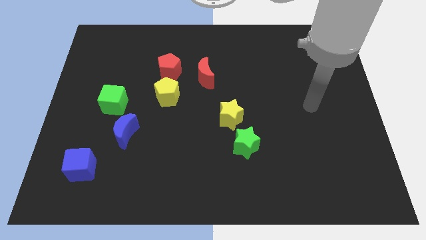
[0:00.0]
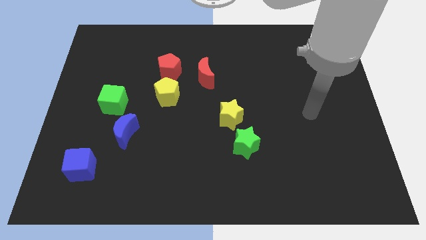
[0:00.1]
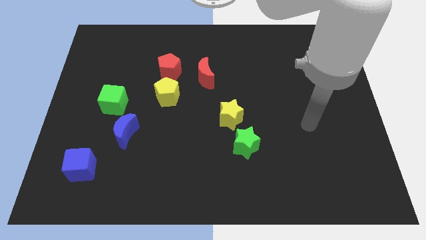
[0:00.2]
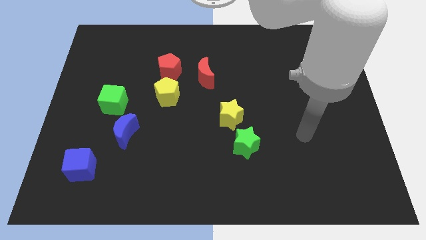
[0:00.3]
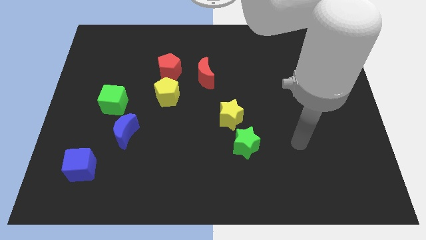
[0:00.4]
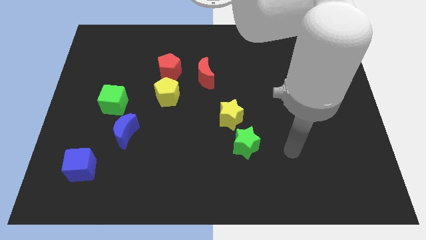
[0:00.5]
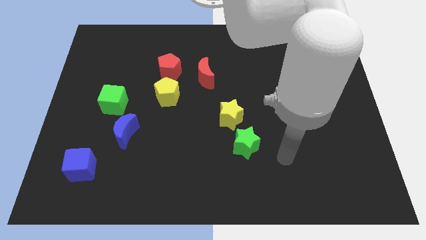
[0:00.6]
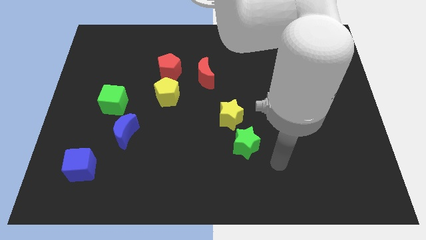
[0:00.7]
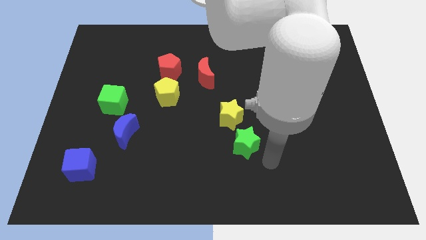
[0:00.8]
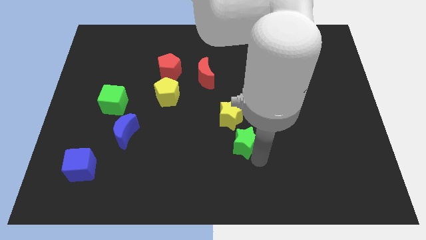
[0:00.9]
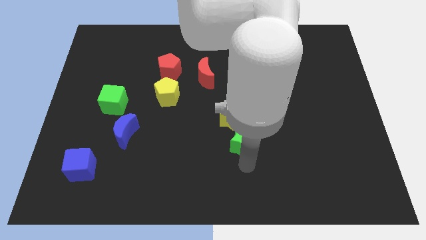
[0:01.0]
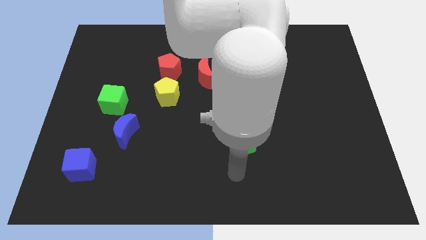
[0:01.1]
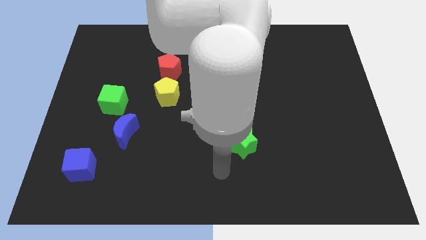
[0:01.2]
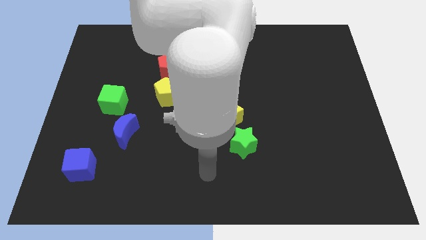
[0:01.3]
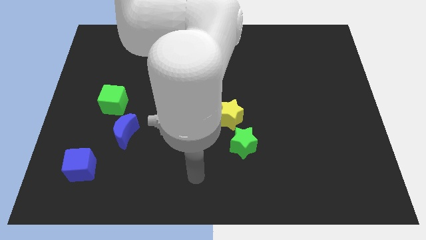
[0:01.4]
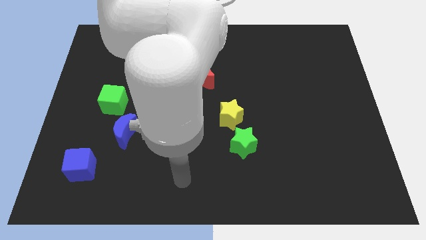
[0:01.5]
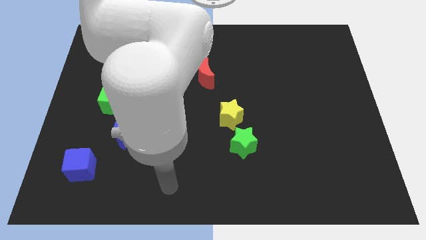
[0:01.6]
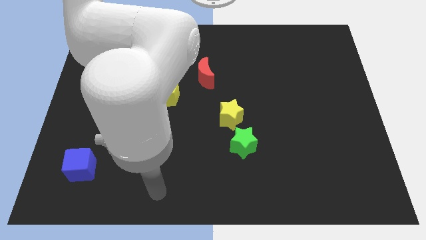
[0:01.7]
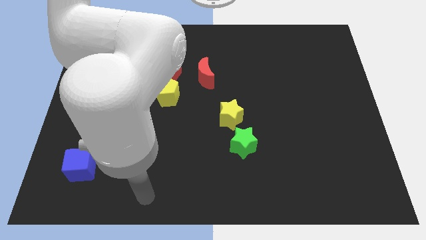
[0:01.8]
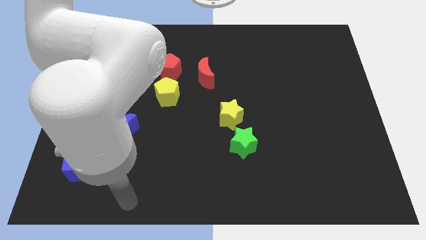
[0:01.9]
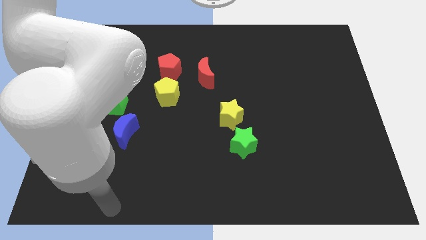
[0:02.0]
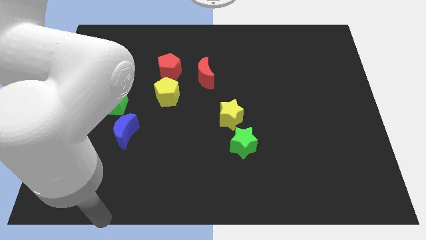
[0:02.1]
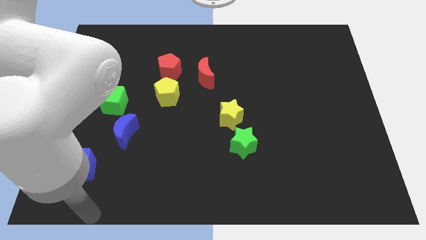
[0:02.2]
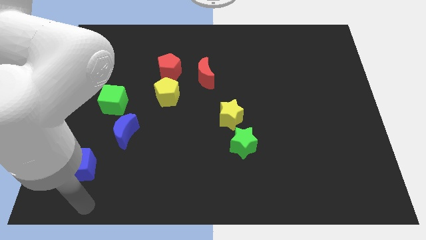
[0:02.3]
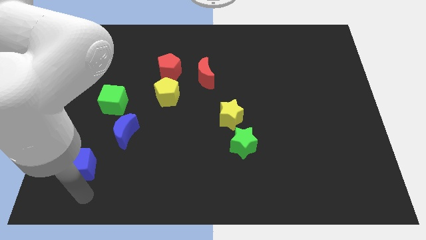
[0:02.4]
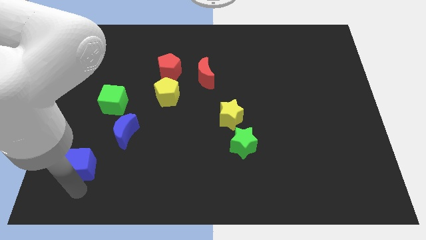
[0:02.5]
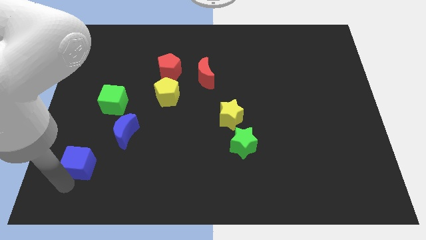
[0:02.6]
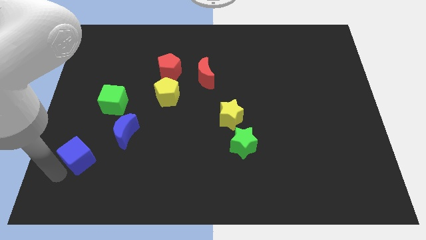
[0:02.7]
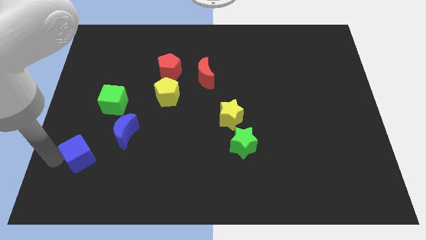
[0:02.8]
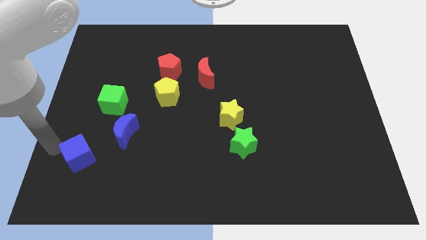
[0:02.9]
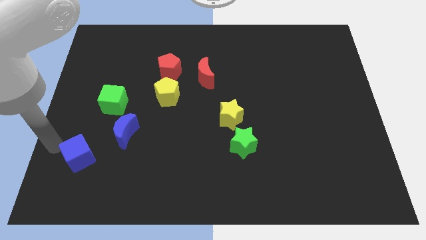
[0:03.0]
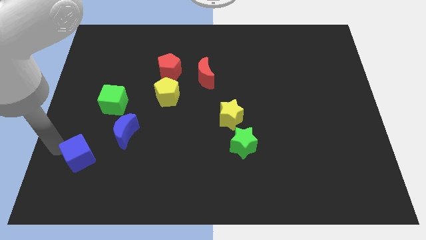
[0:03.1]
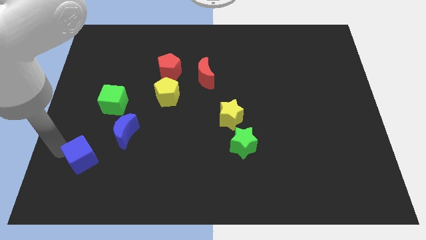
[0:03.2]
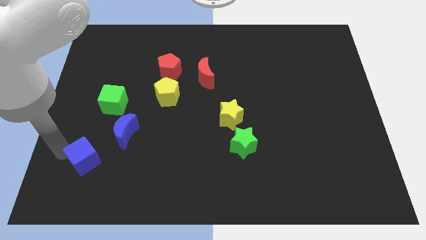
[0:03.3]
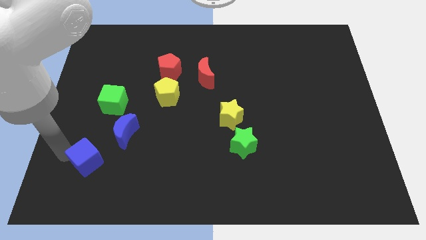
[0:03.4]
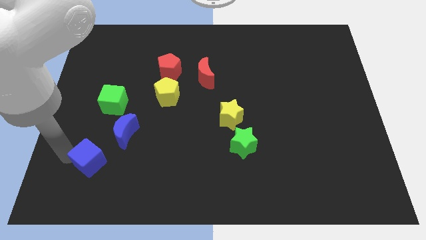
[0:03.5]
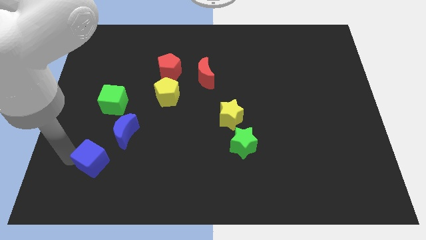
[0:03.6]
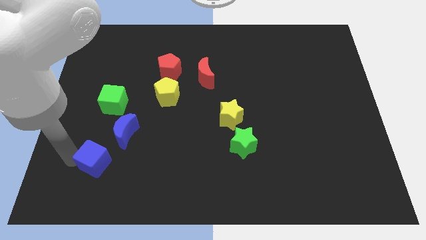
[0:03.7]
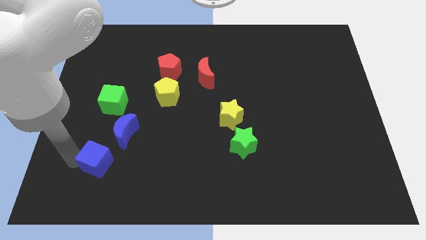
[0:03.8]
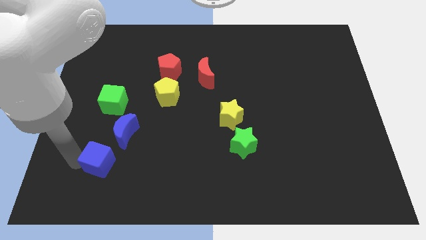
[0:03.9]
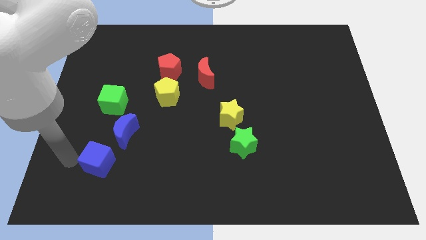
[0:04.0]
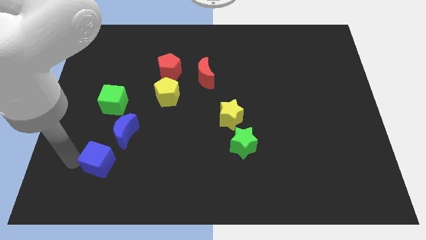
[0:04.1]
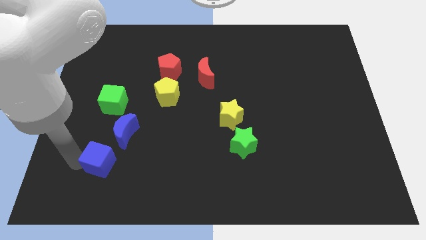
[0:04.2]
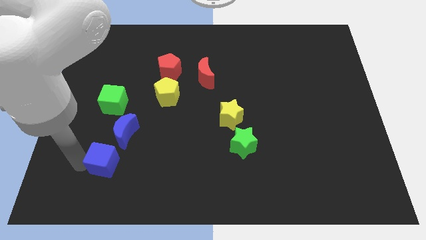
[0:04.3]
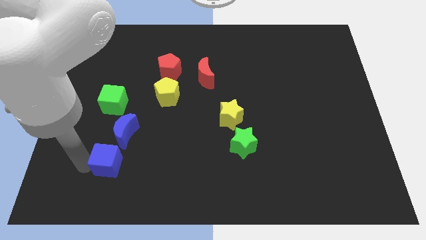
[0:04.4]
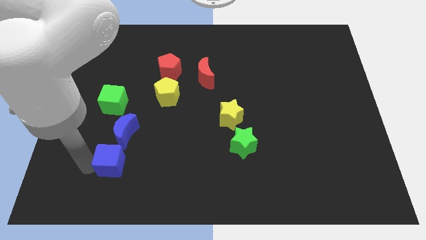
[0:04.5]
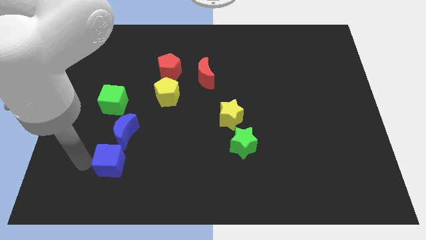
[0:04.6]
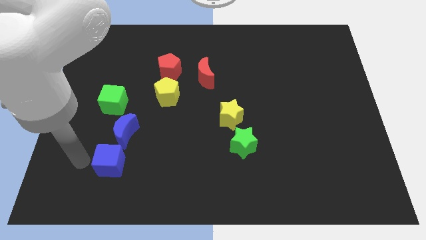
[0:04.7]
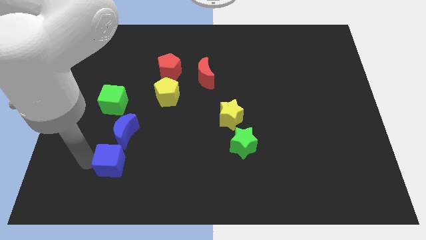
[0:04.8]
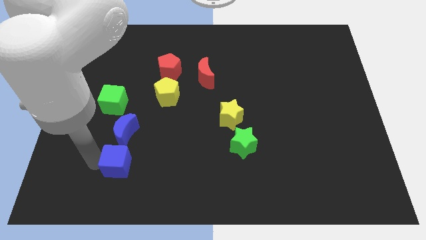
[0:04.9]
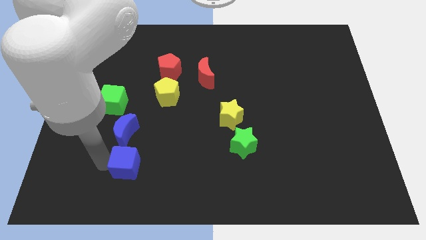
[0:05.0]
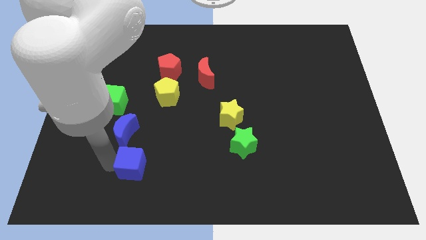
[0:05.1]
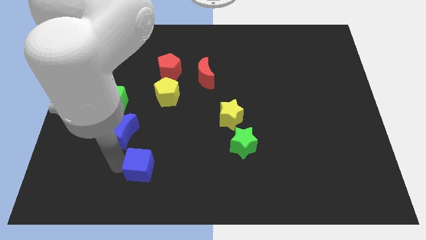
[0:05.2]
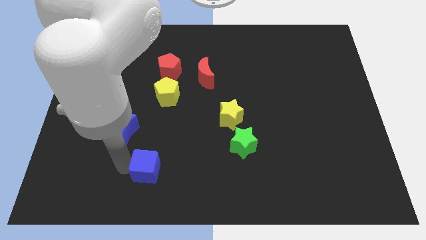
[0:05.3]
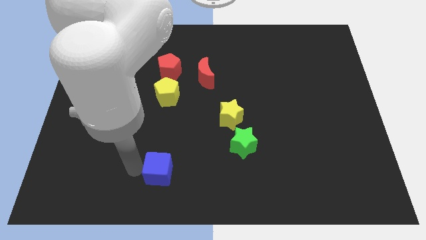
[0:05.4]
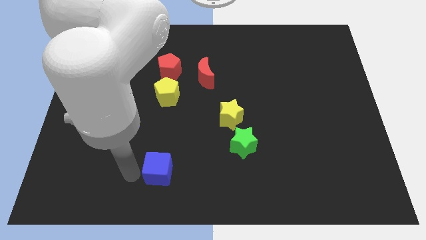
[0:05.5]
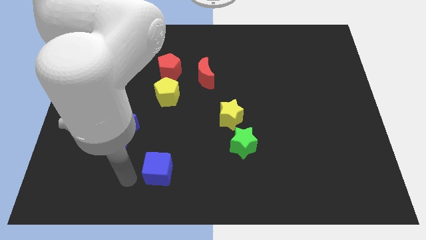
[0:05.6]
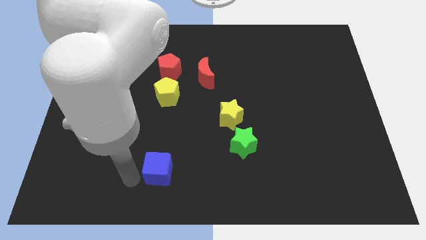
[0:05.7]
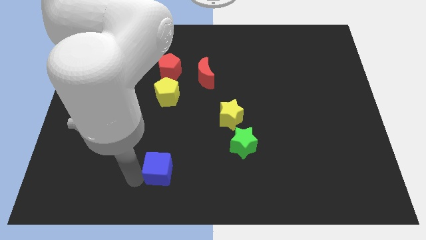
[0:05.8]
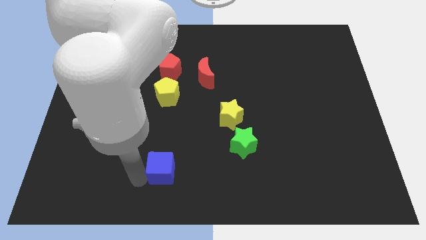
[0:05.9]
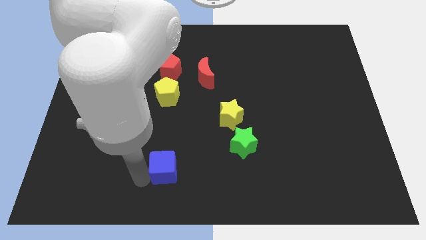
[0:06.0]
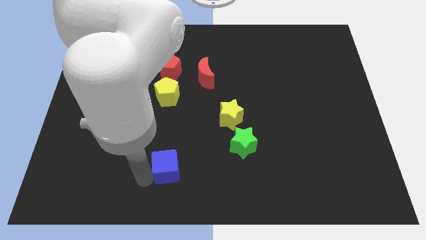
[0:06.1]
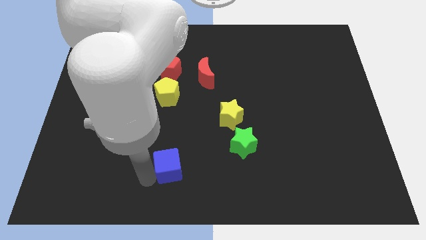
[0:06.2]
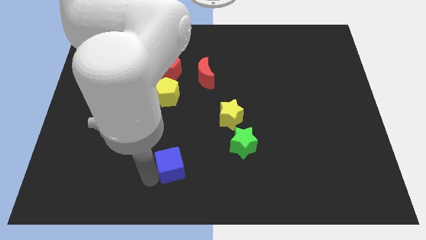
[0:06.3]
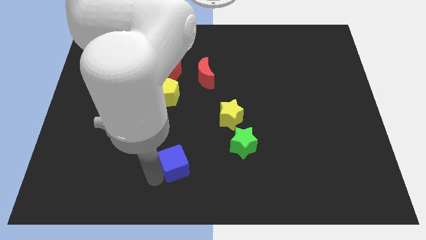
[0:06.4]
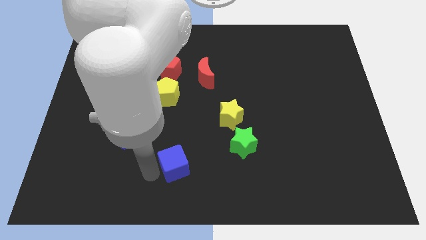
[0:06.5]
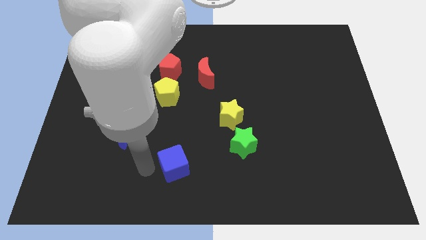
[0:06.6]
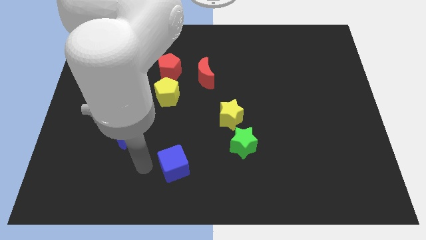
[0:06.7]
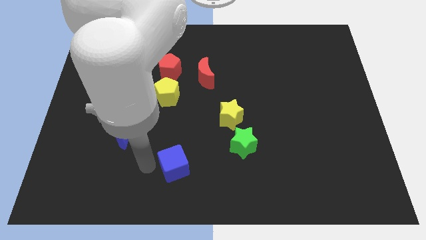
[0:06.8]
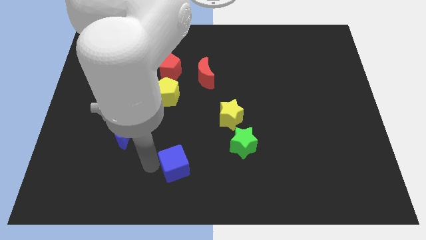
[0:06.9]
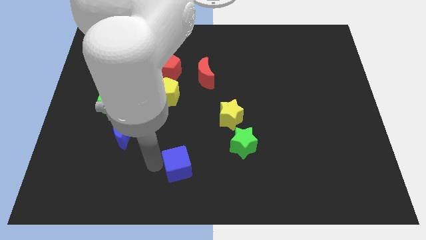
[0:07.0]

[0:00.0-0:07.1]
move the blue cube to the right

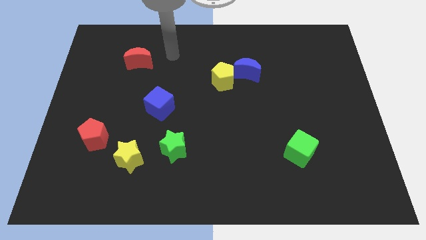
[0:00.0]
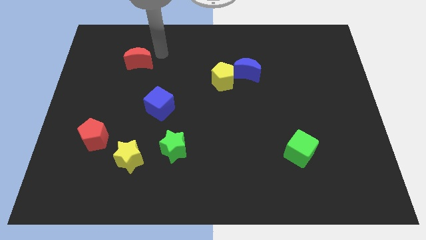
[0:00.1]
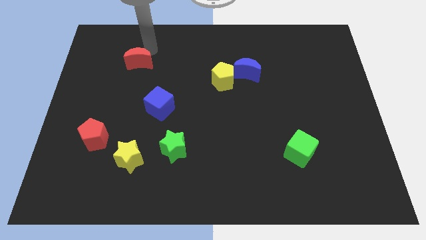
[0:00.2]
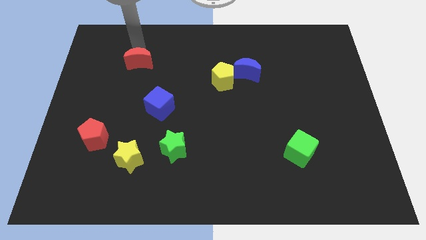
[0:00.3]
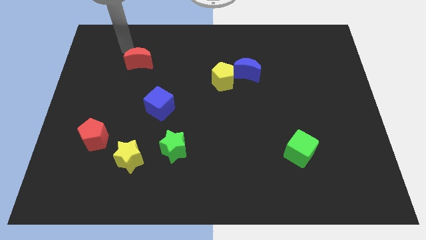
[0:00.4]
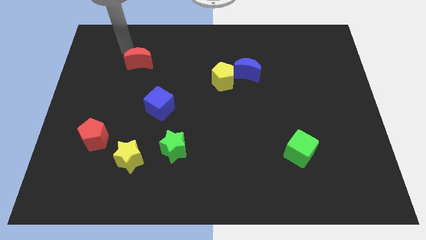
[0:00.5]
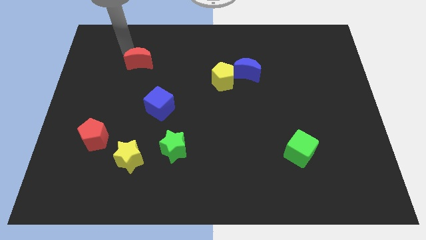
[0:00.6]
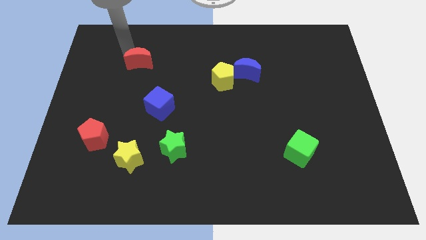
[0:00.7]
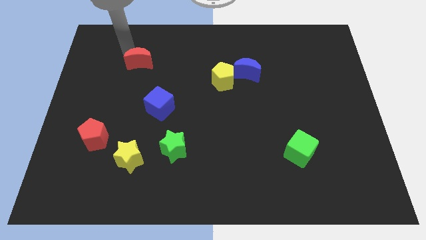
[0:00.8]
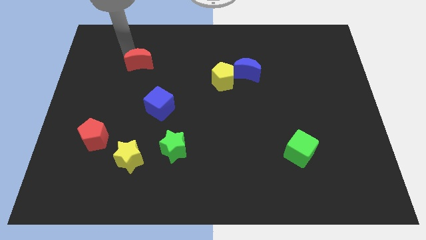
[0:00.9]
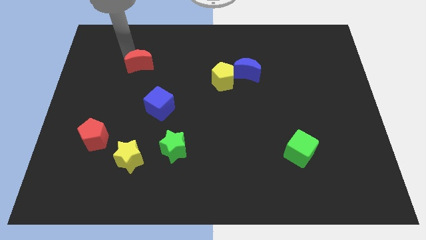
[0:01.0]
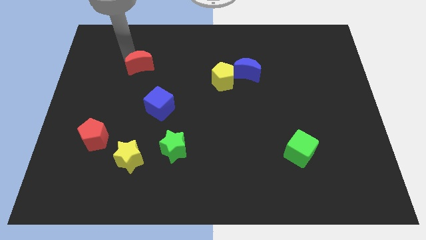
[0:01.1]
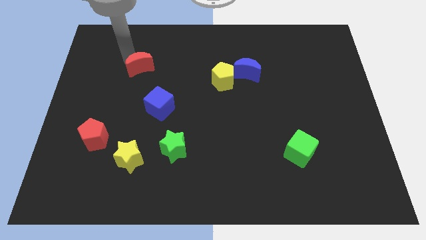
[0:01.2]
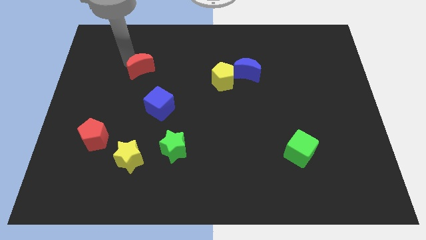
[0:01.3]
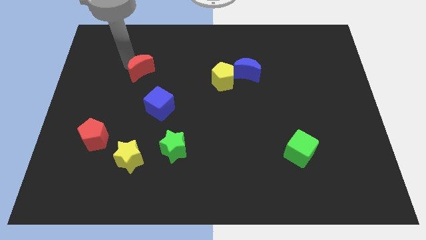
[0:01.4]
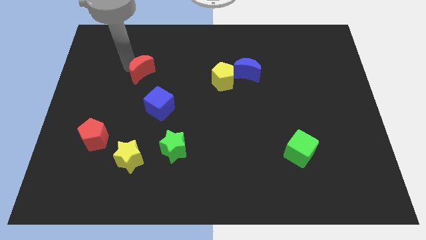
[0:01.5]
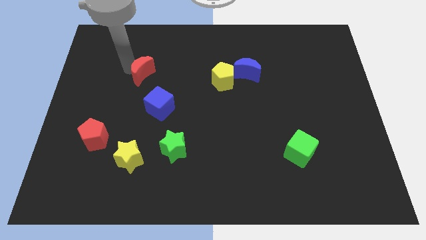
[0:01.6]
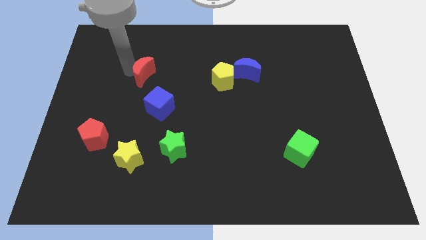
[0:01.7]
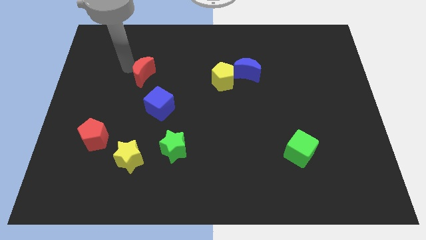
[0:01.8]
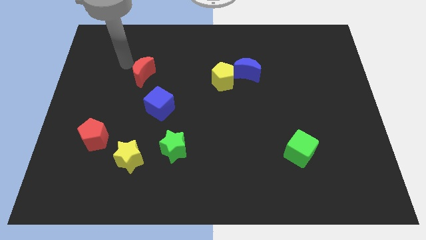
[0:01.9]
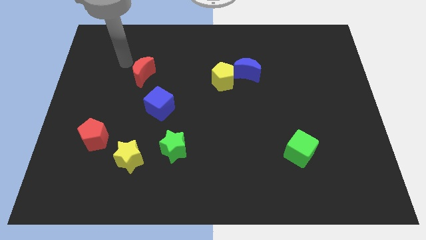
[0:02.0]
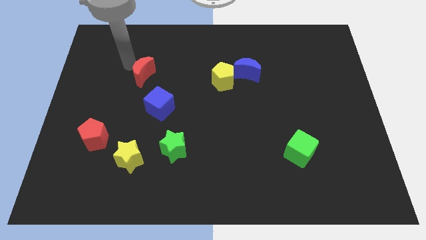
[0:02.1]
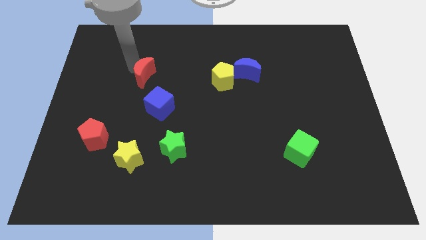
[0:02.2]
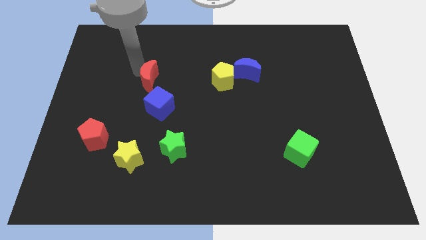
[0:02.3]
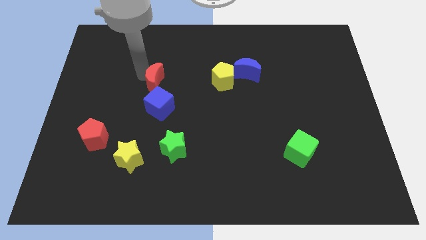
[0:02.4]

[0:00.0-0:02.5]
push the red moon diagonally down and to the right somewhat
